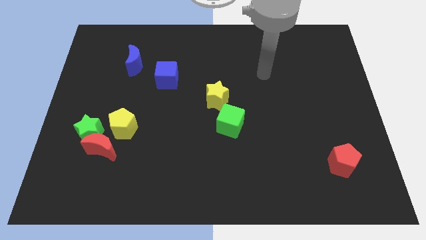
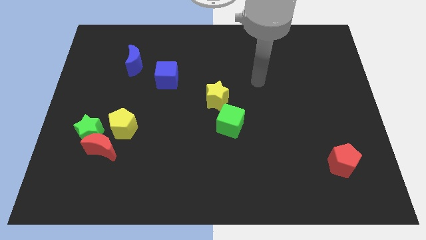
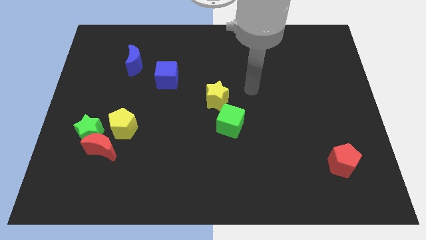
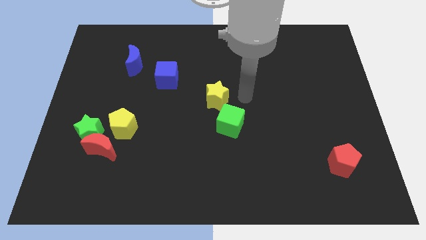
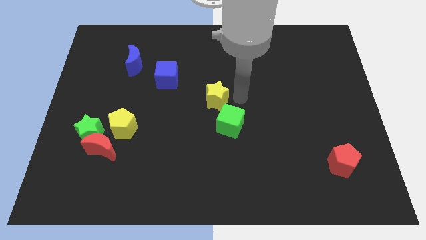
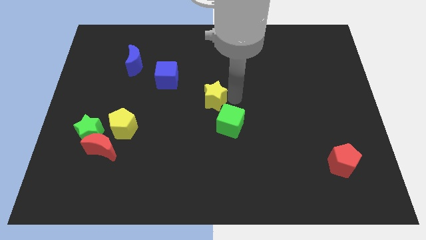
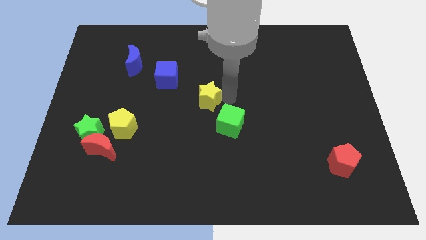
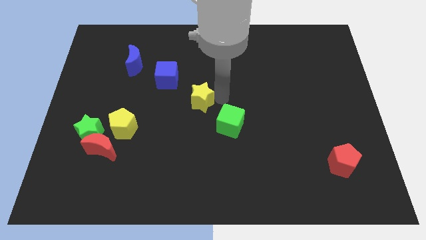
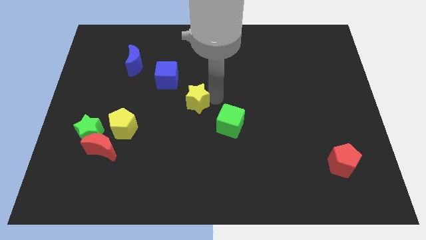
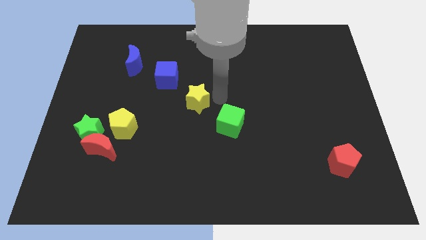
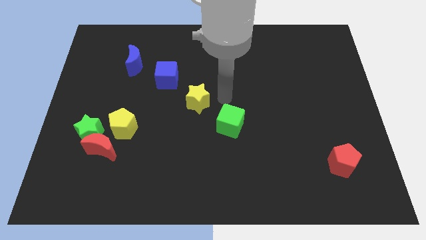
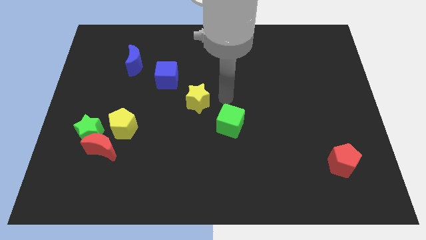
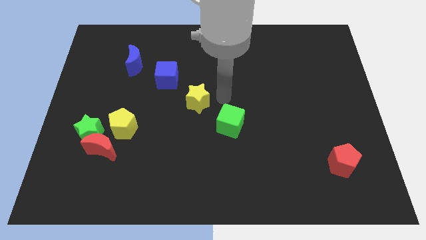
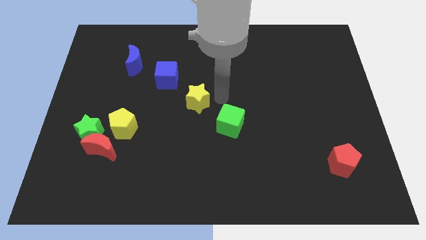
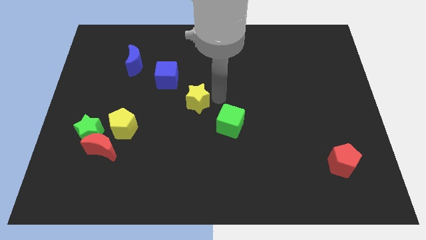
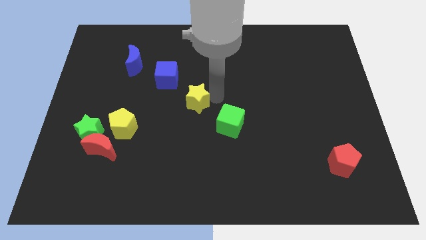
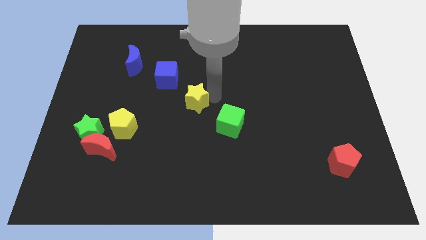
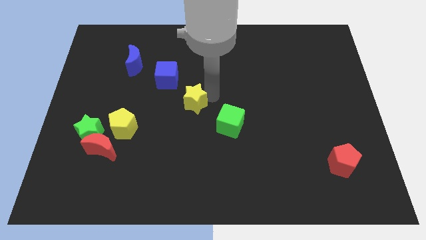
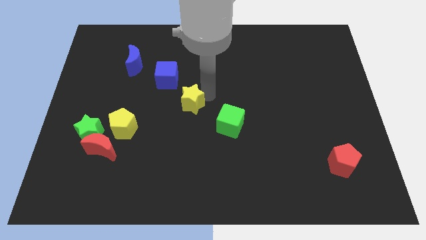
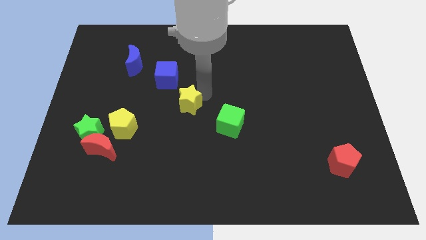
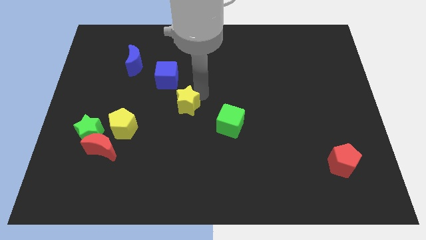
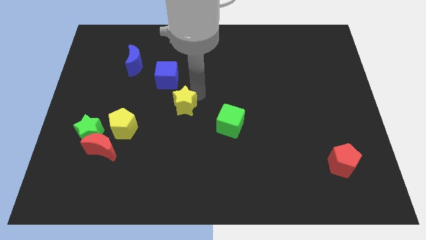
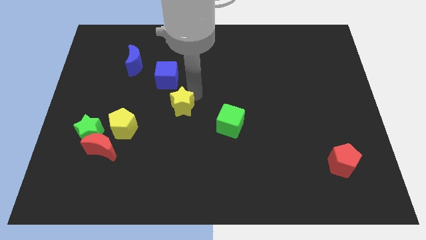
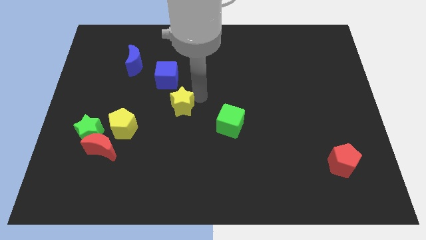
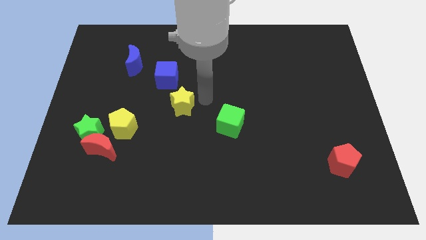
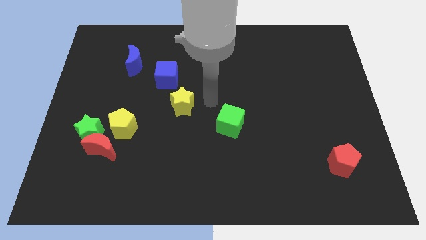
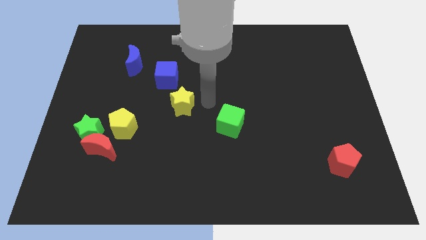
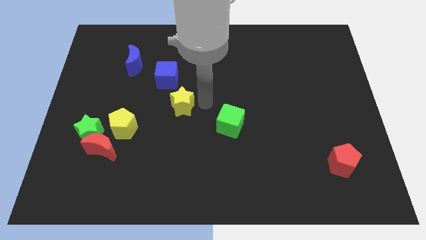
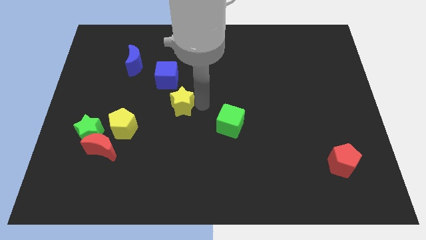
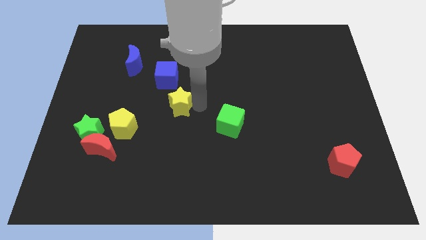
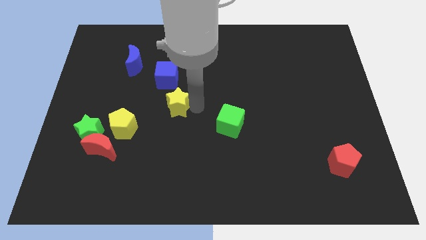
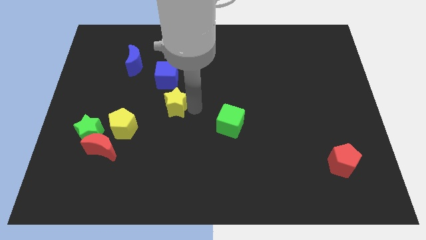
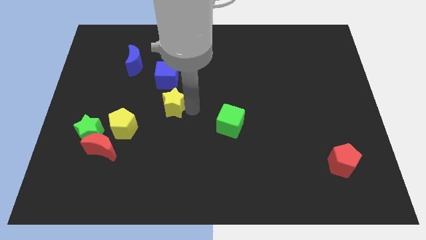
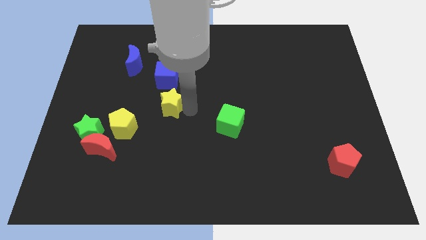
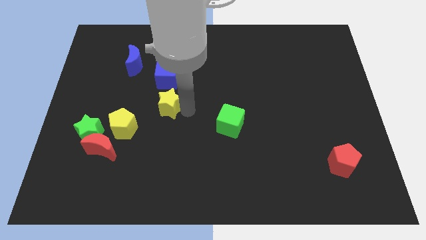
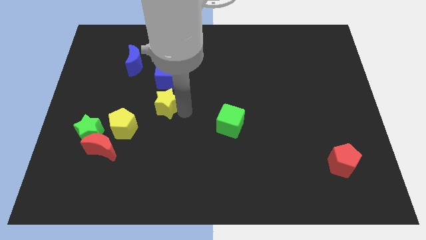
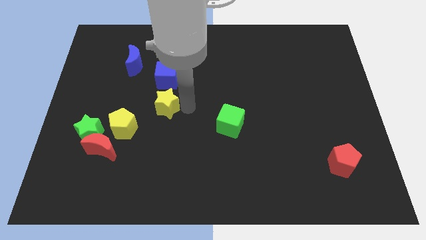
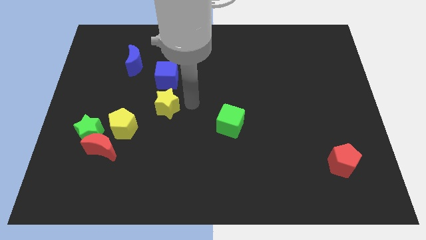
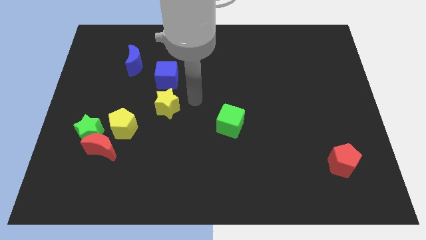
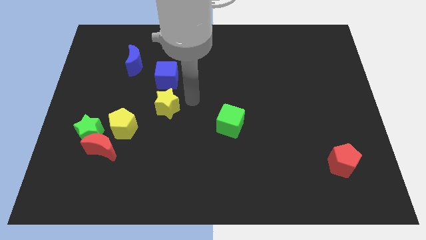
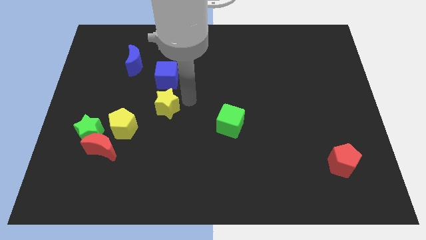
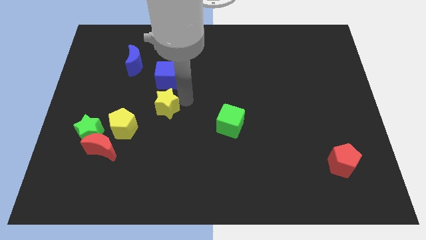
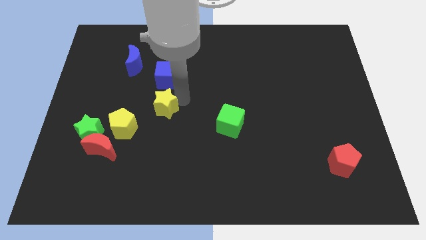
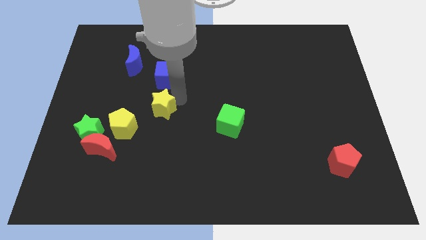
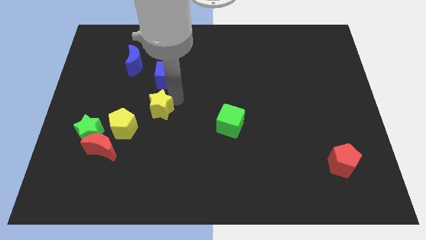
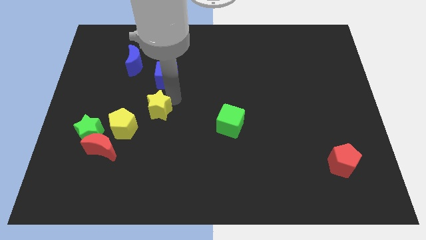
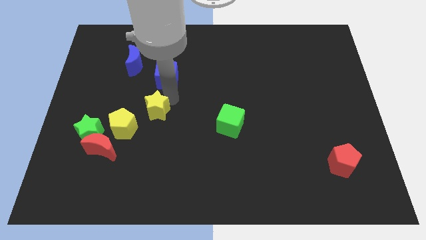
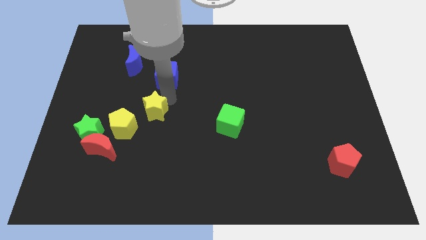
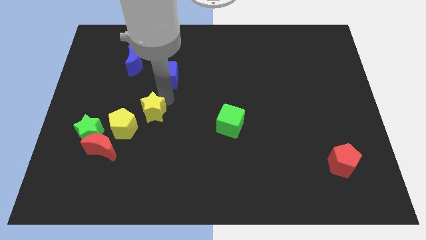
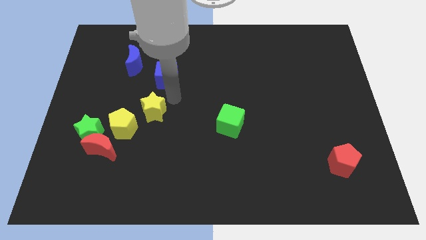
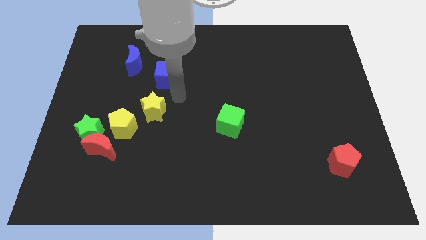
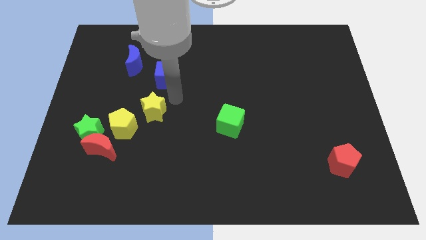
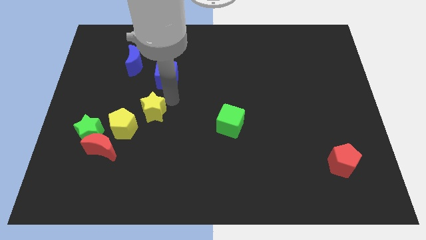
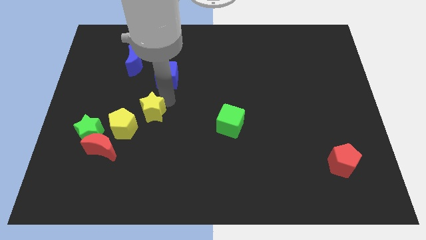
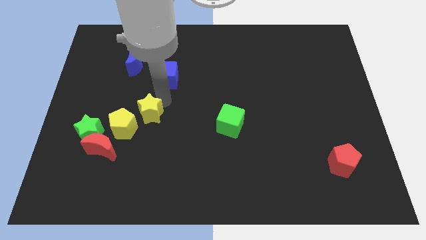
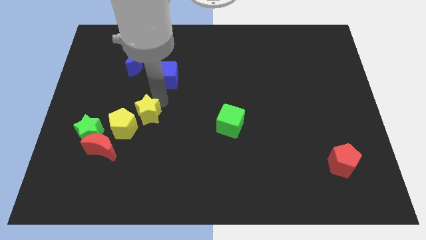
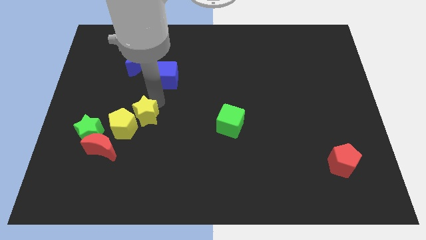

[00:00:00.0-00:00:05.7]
push the yellow star to the yellow pentagon

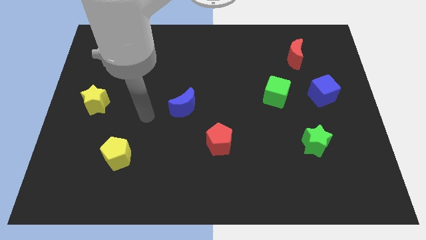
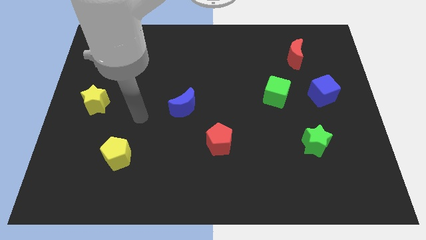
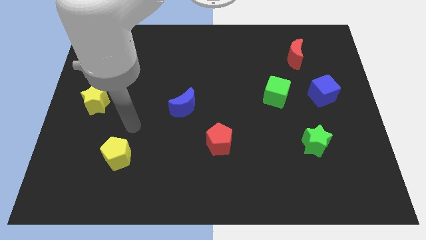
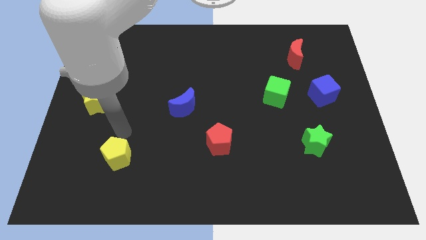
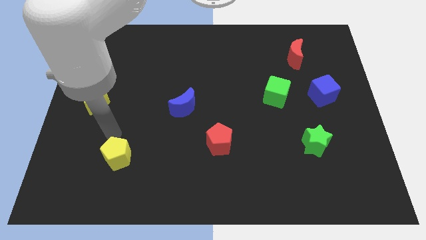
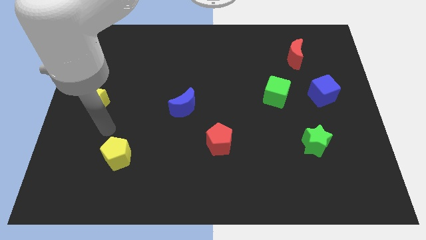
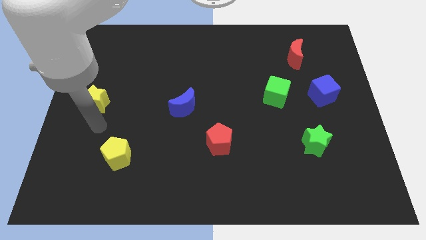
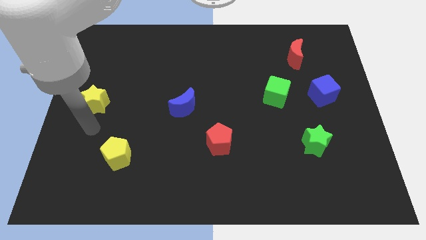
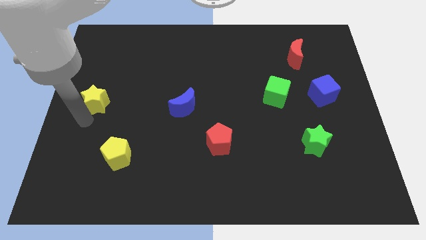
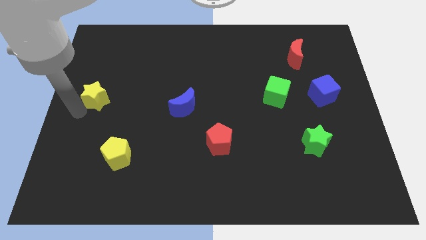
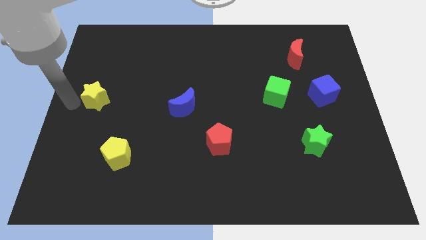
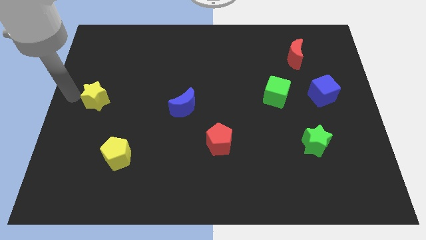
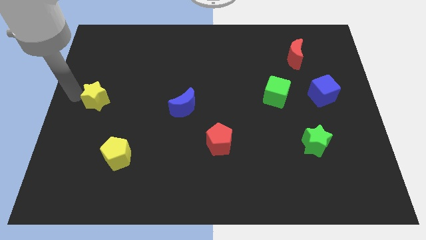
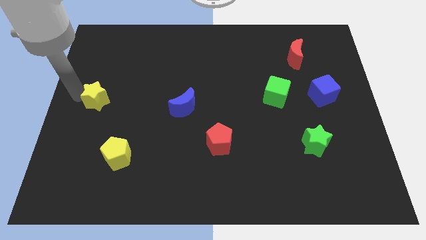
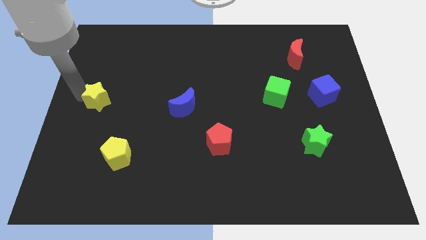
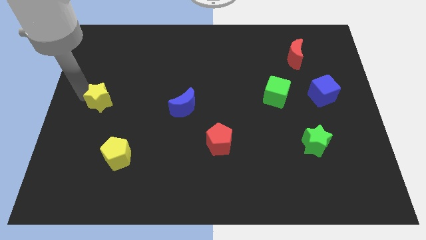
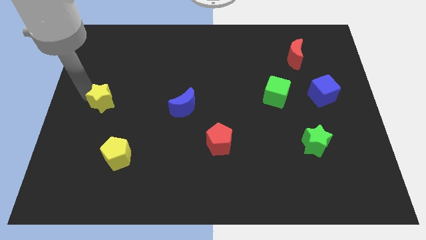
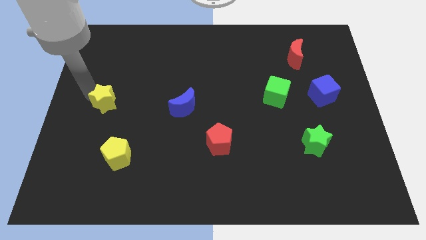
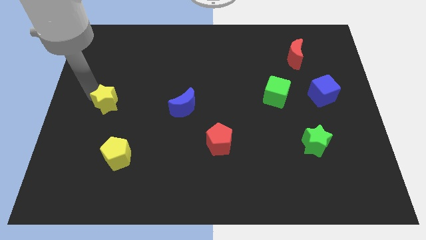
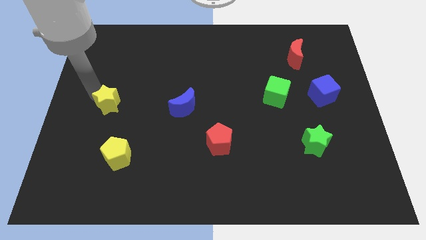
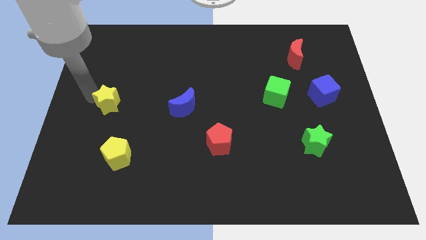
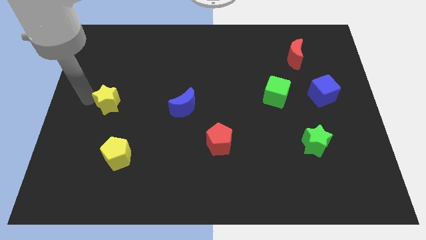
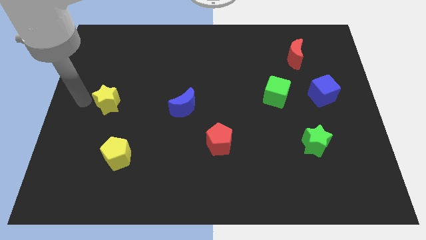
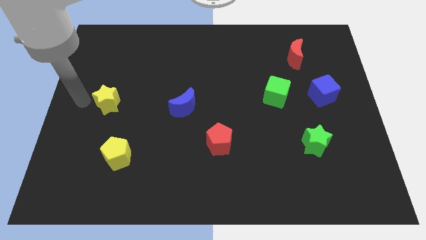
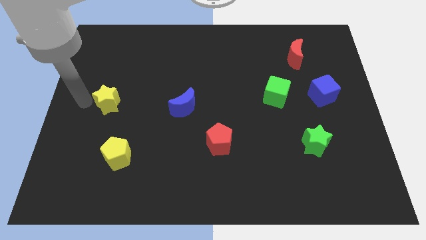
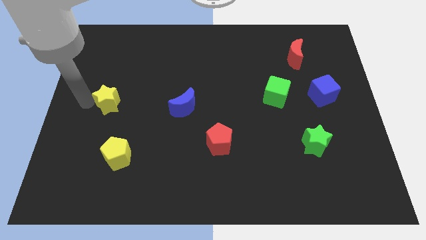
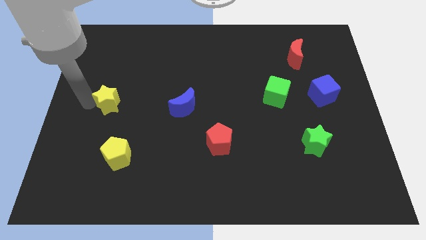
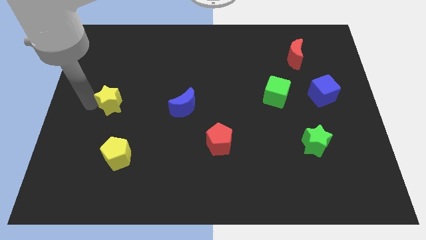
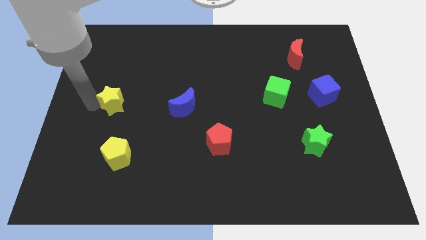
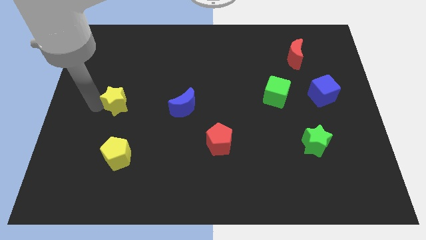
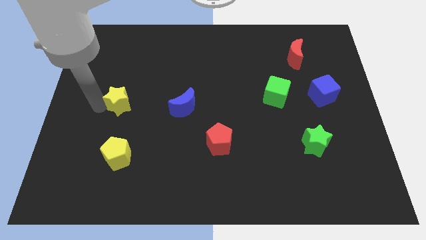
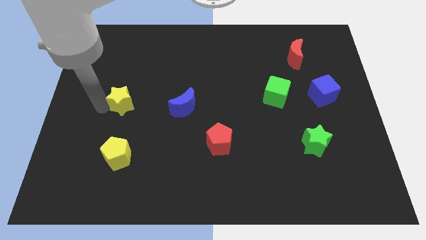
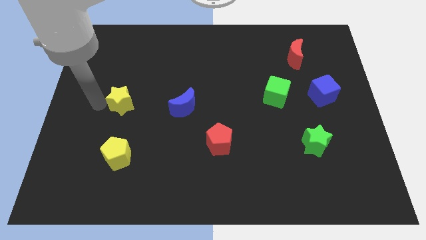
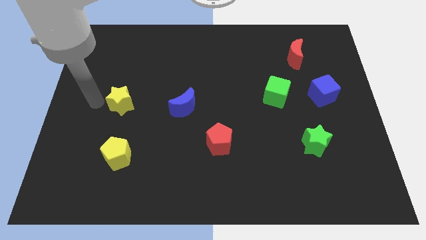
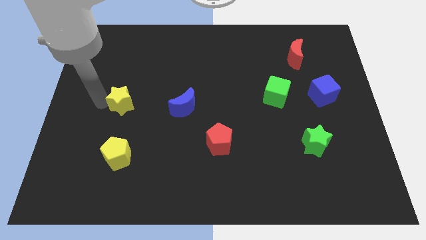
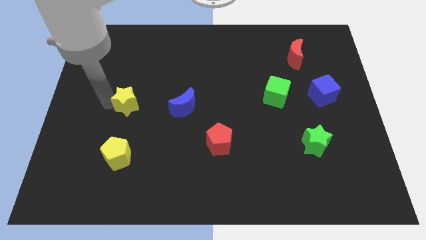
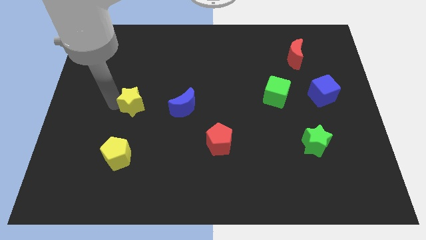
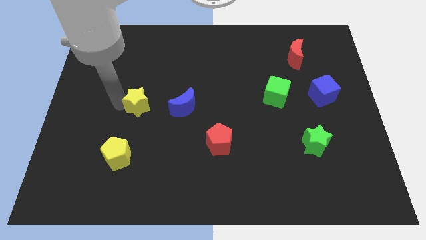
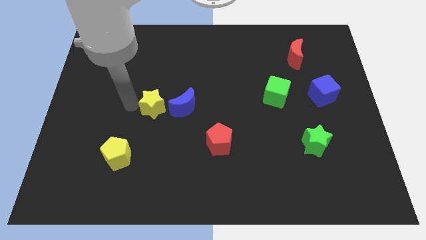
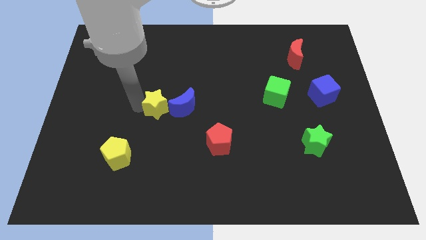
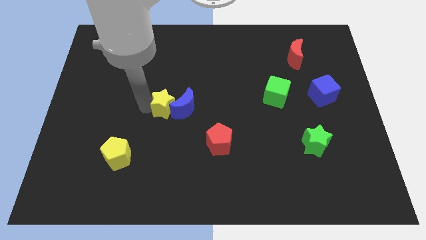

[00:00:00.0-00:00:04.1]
slide the yellow star next to the blue moon
